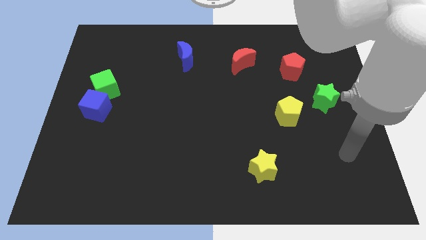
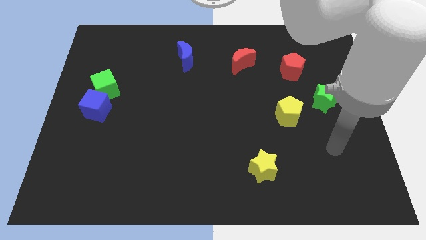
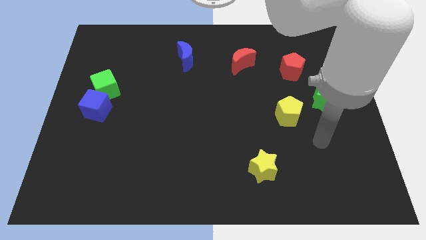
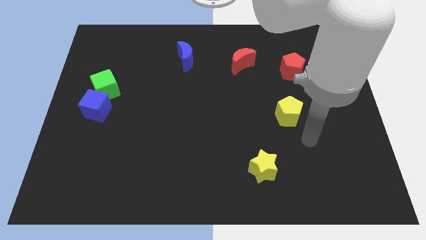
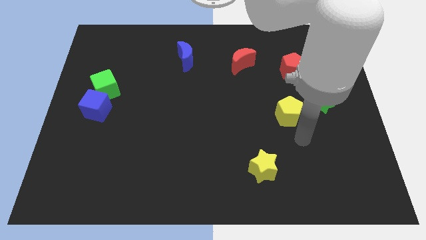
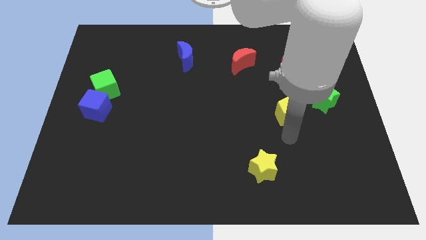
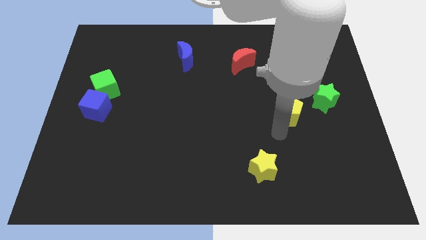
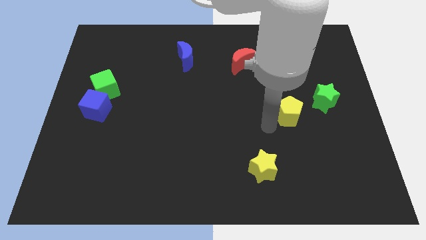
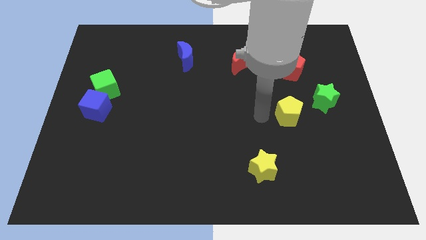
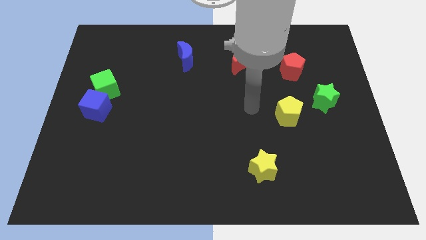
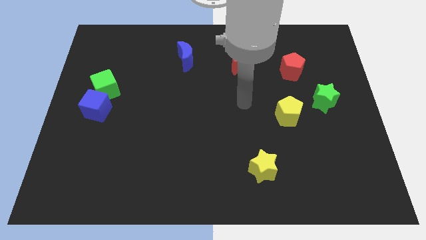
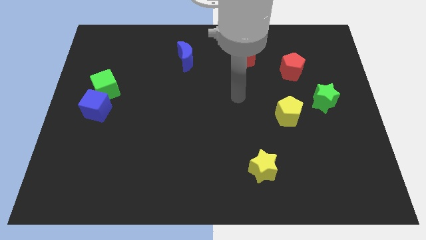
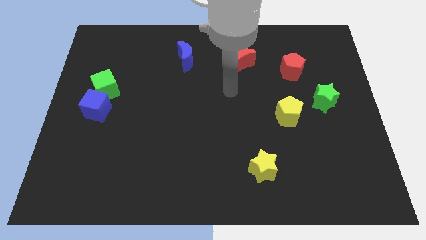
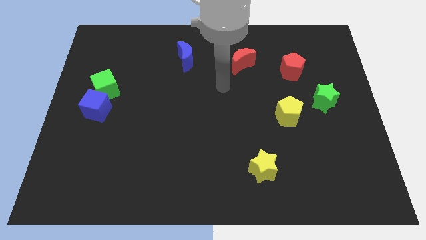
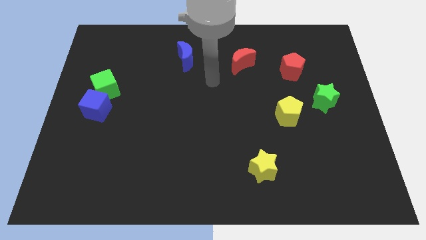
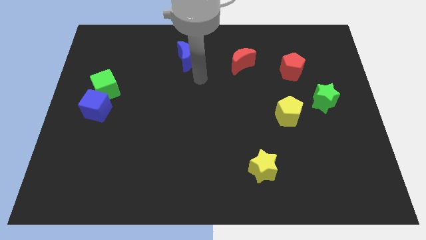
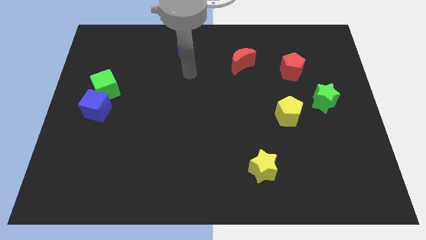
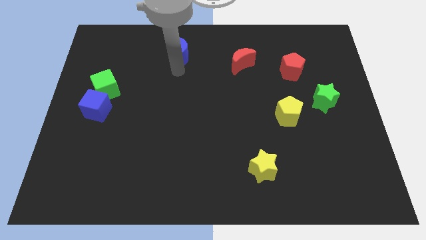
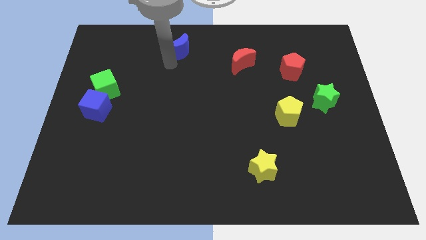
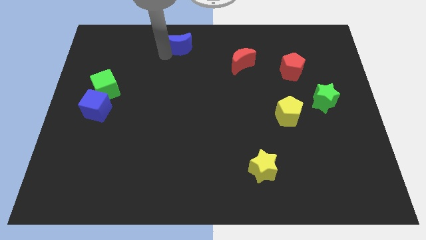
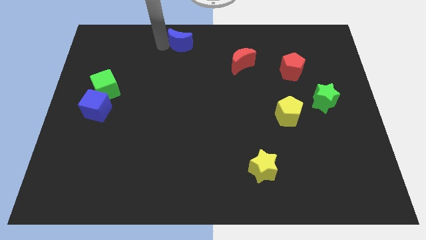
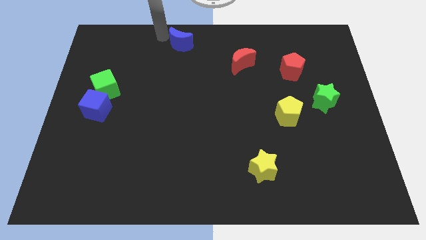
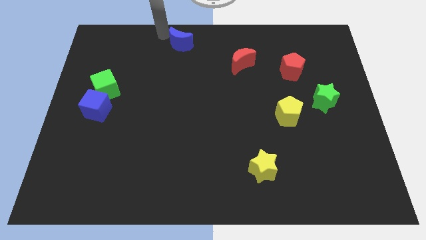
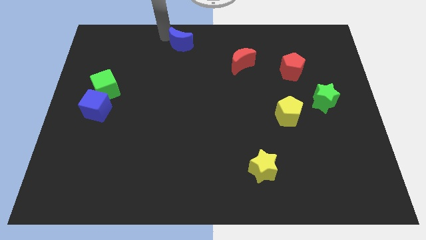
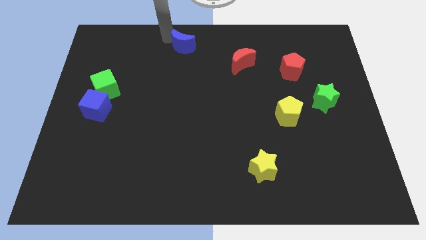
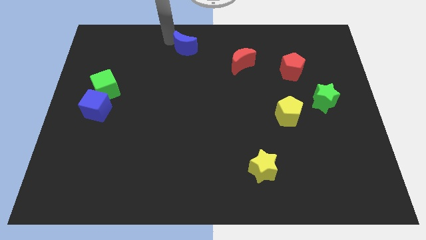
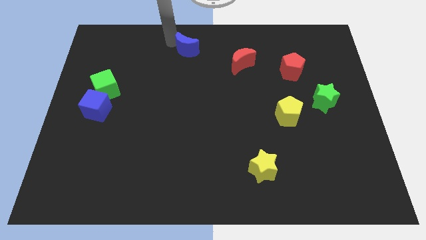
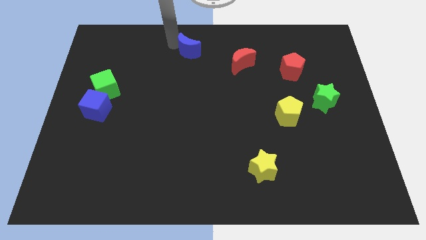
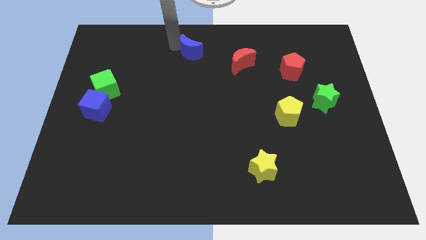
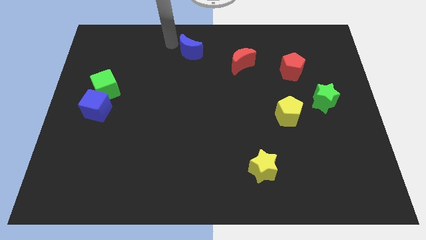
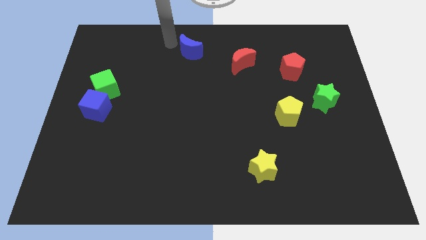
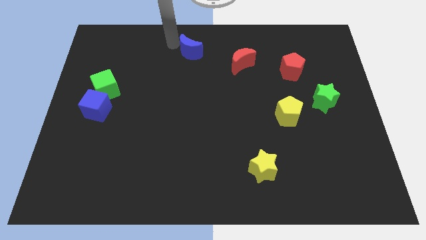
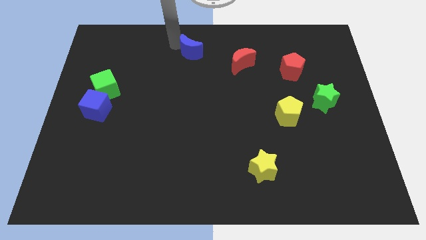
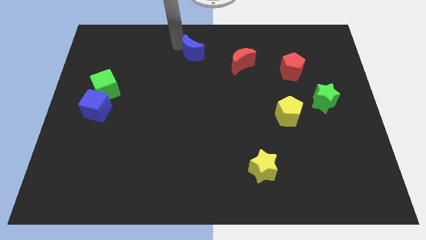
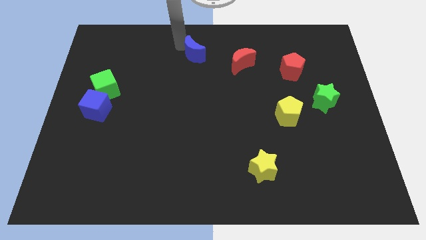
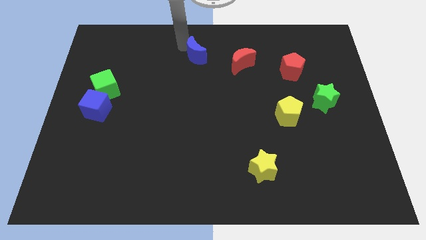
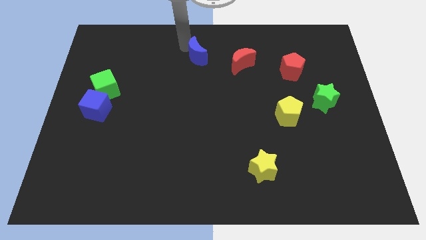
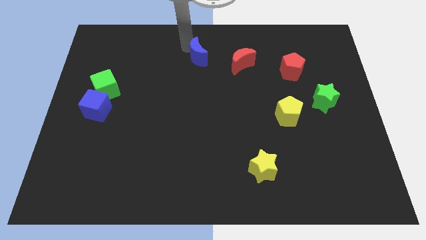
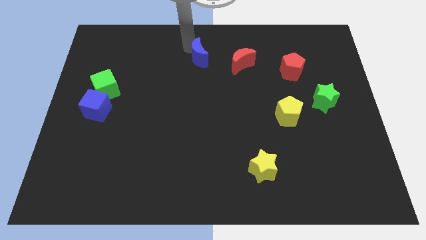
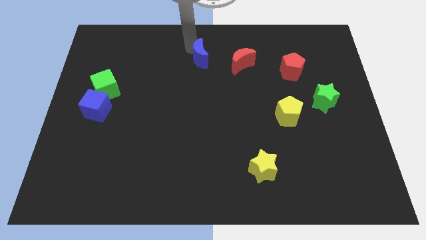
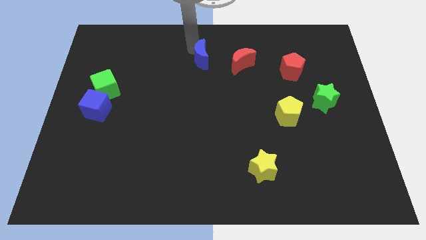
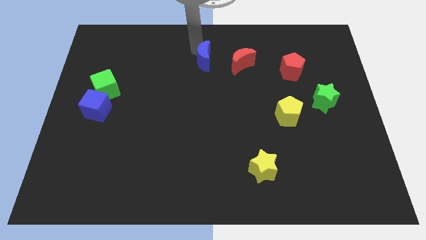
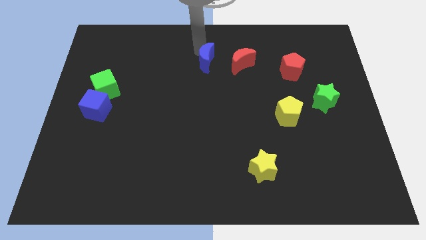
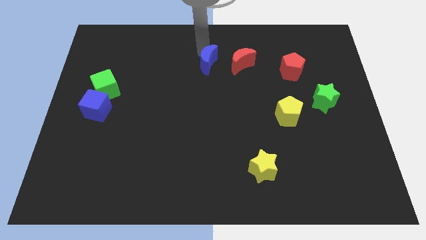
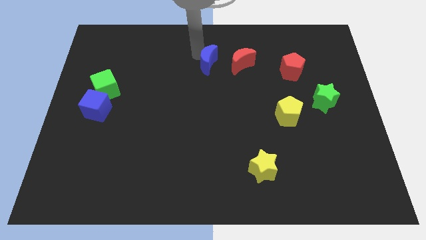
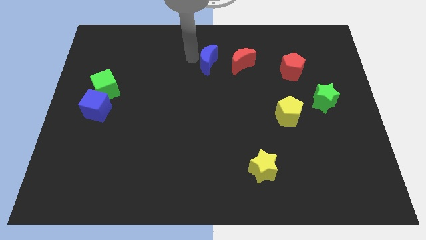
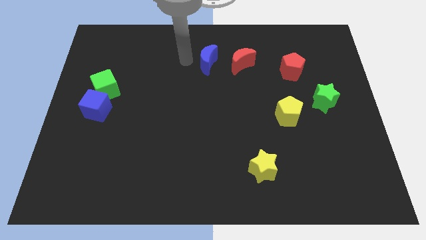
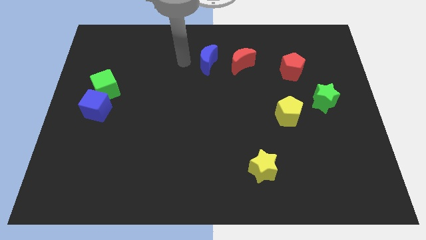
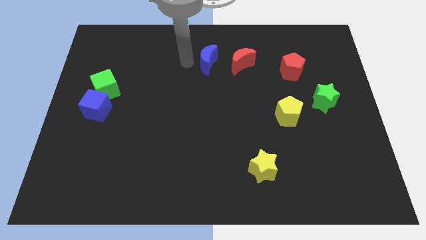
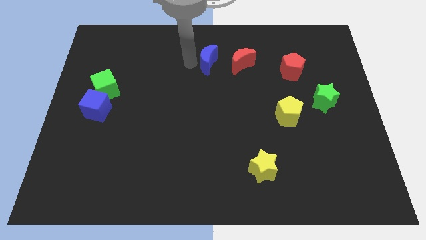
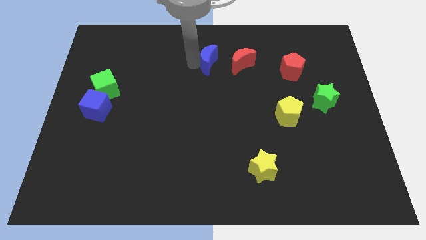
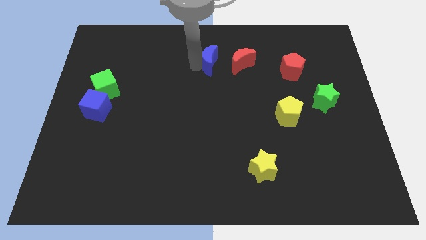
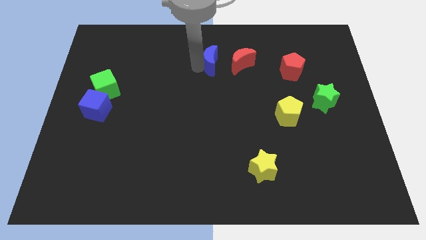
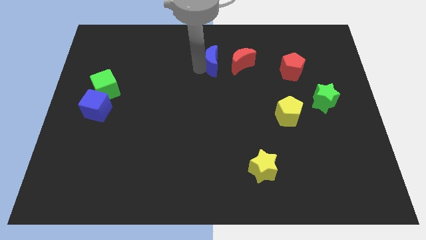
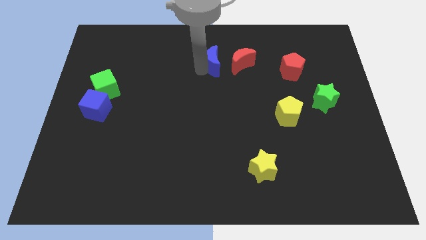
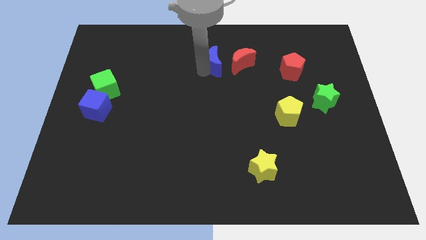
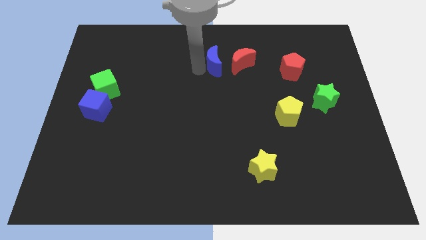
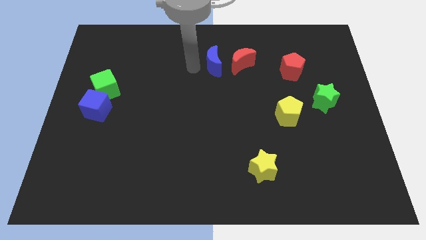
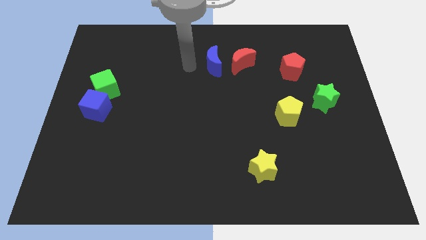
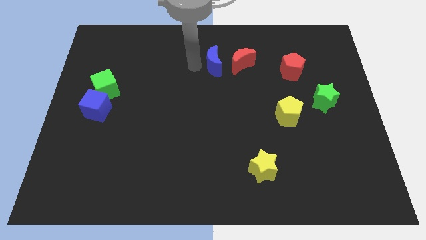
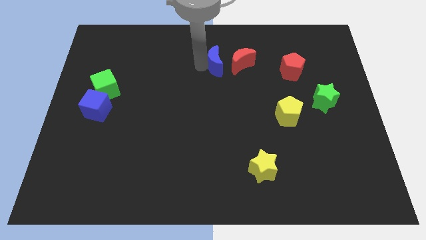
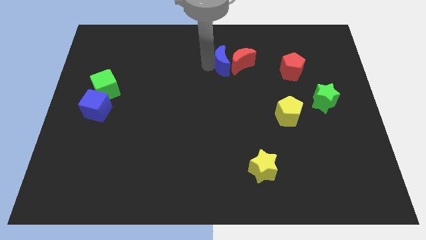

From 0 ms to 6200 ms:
move the blue moon towards the red moon

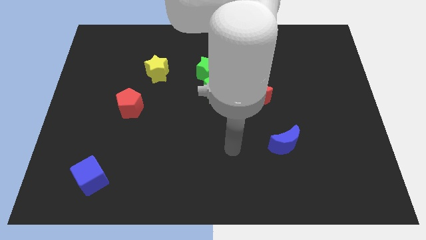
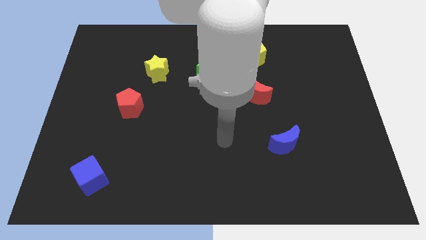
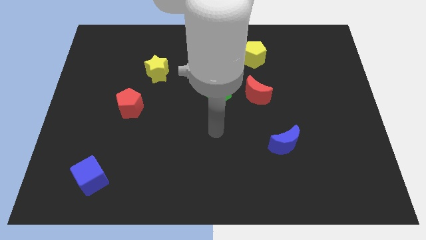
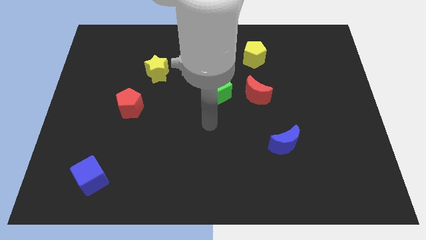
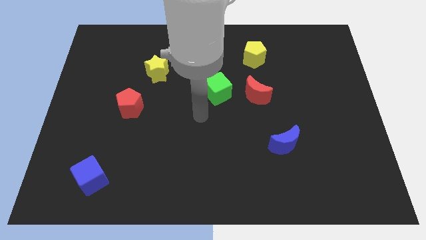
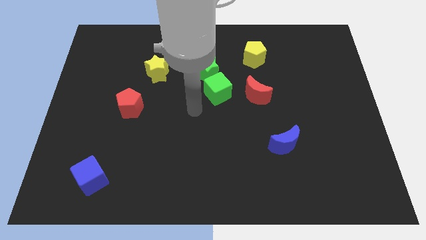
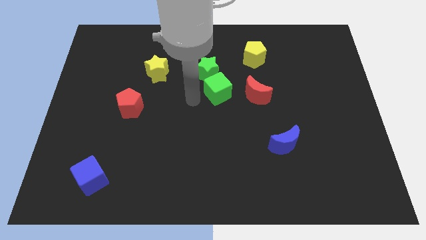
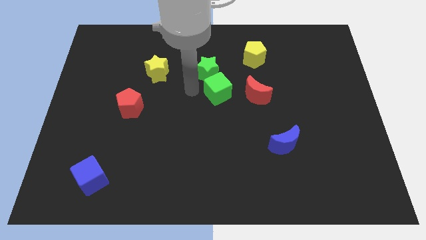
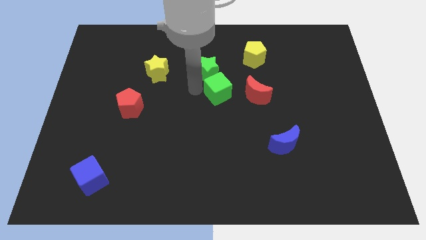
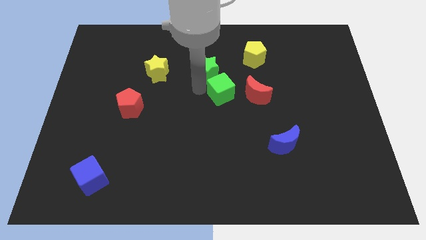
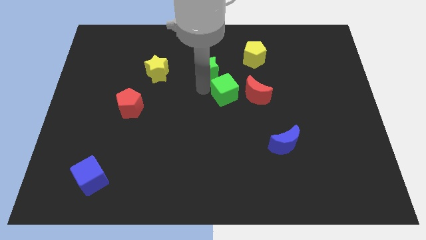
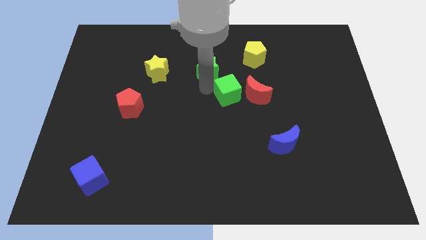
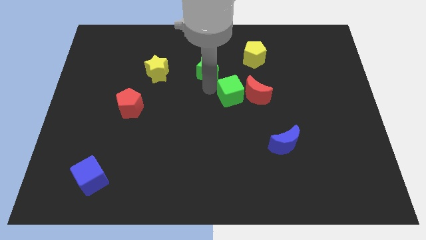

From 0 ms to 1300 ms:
move the green cube to the red moon
